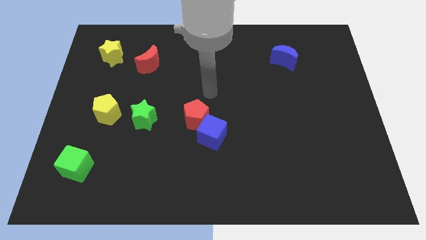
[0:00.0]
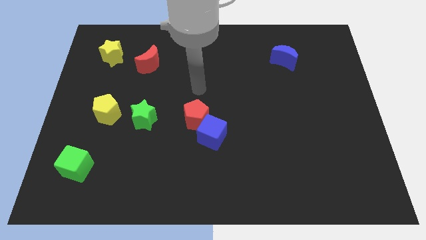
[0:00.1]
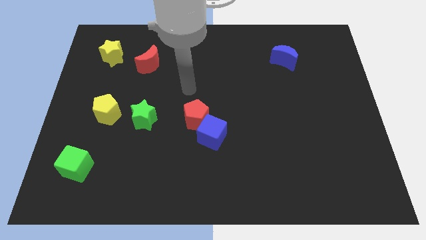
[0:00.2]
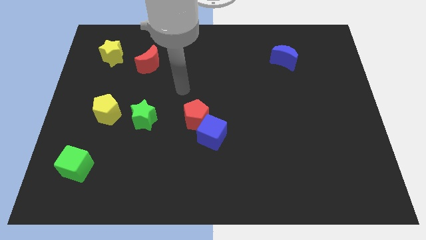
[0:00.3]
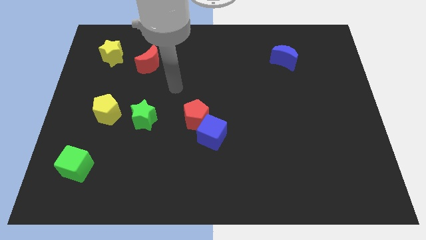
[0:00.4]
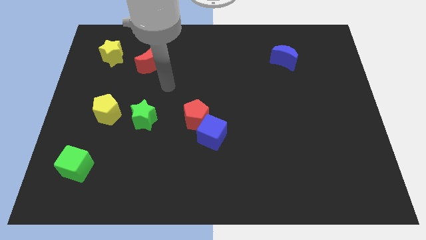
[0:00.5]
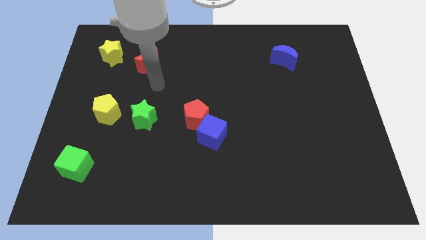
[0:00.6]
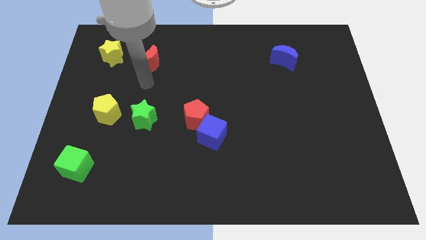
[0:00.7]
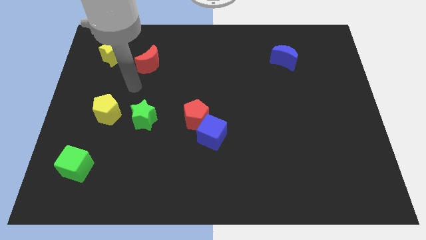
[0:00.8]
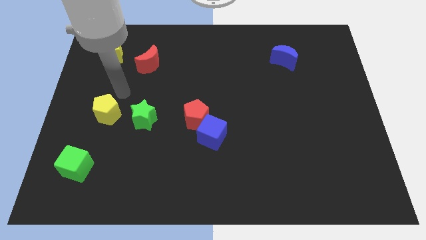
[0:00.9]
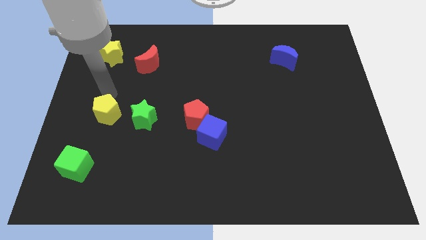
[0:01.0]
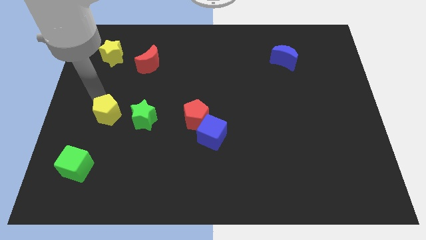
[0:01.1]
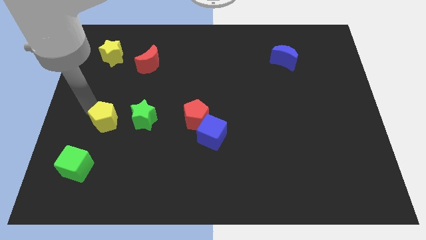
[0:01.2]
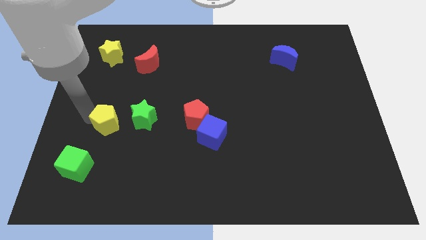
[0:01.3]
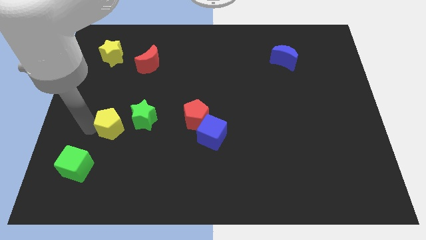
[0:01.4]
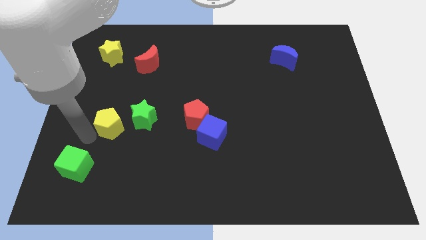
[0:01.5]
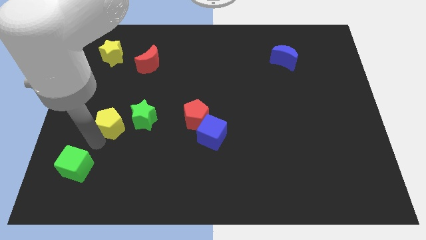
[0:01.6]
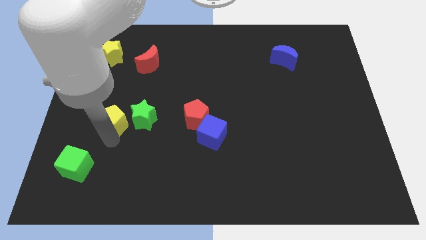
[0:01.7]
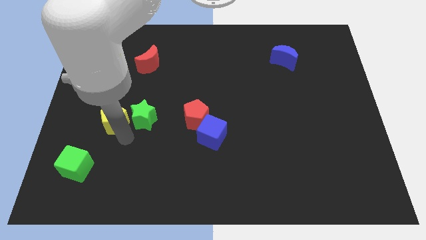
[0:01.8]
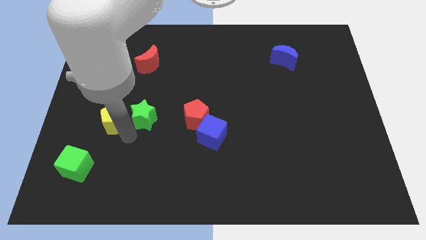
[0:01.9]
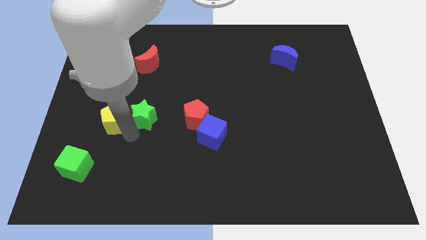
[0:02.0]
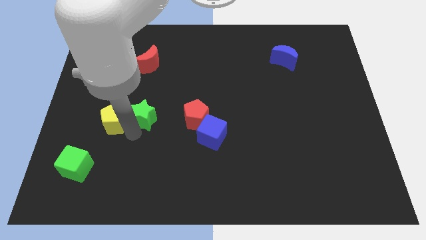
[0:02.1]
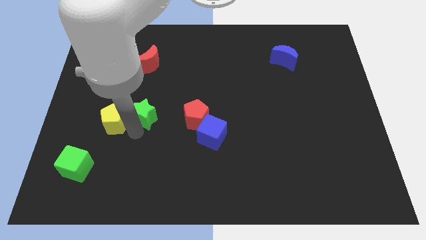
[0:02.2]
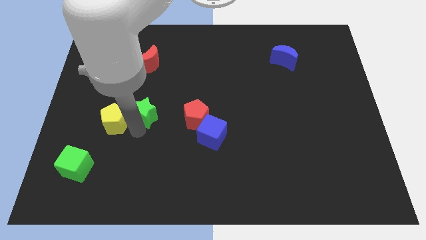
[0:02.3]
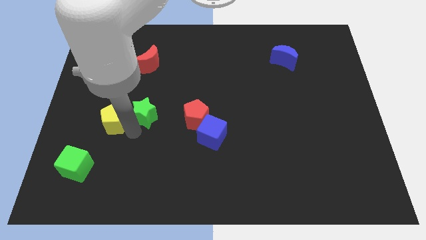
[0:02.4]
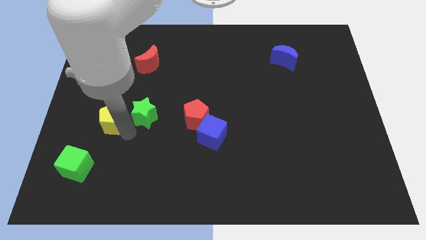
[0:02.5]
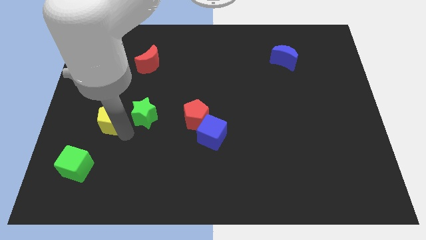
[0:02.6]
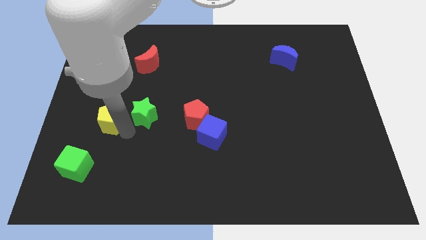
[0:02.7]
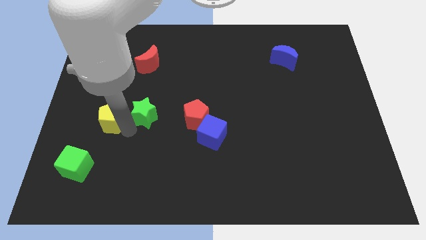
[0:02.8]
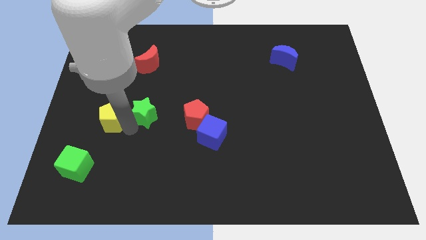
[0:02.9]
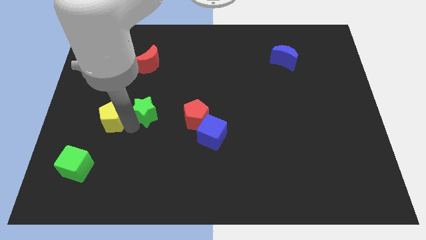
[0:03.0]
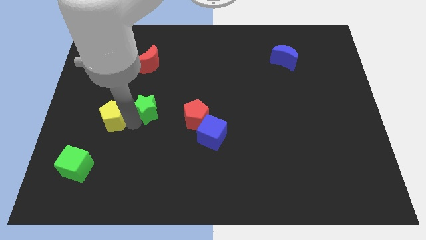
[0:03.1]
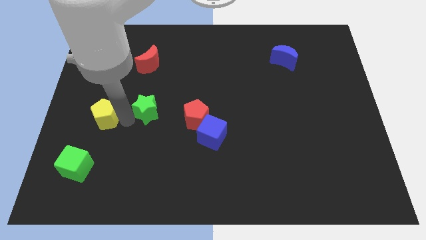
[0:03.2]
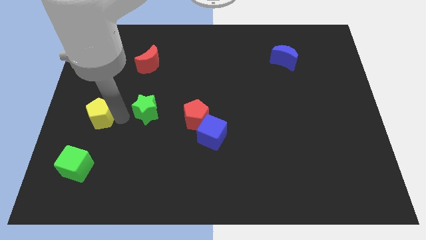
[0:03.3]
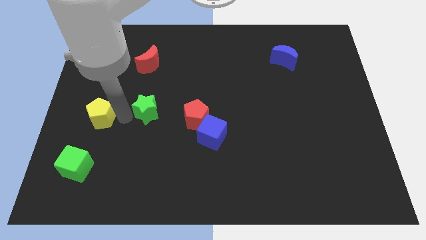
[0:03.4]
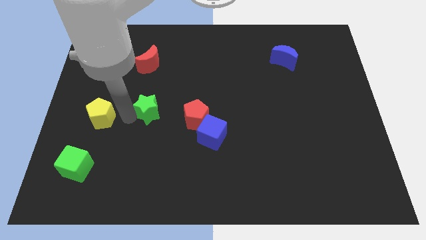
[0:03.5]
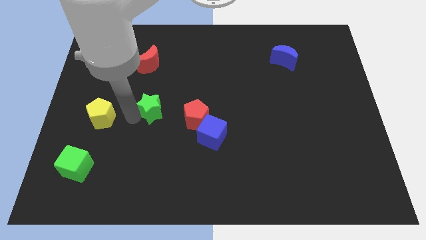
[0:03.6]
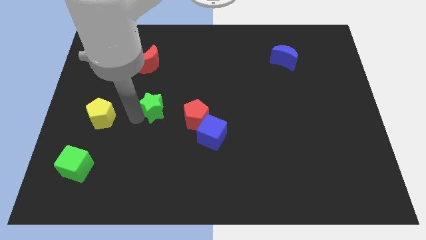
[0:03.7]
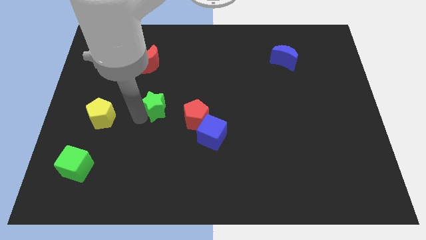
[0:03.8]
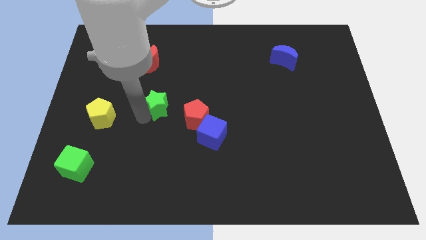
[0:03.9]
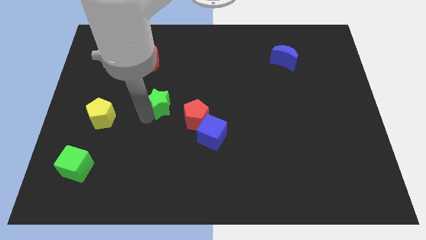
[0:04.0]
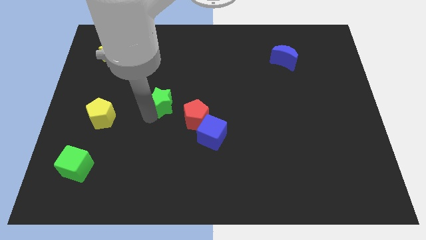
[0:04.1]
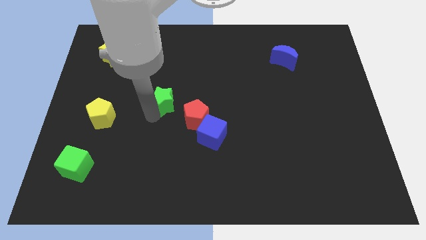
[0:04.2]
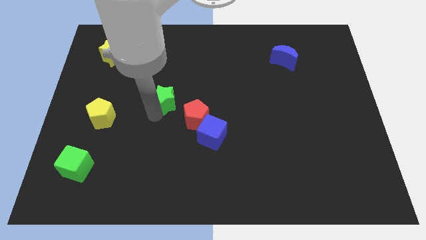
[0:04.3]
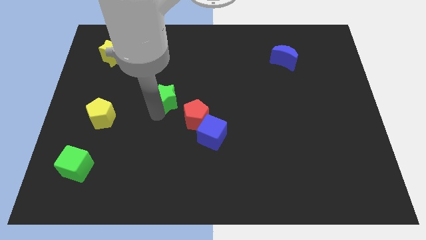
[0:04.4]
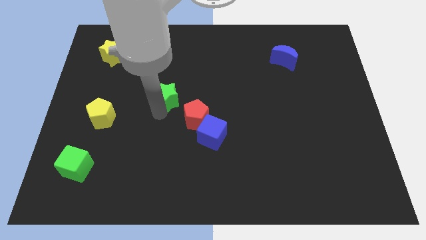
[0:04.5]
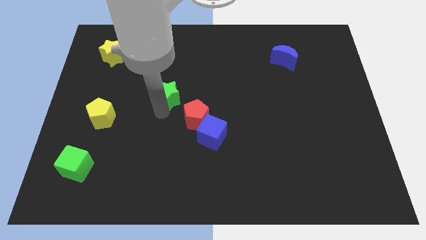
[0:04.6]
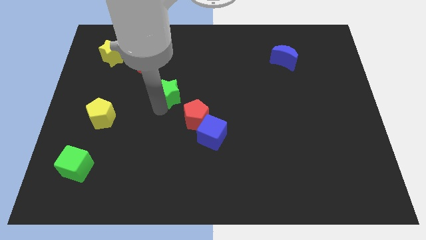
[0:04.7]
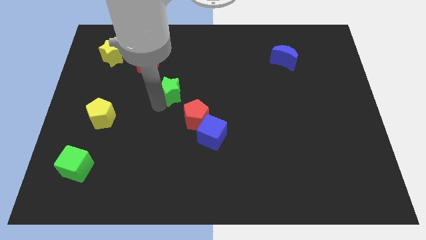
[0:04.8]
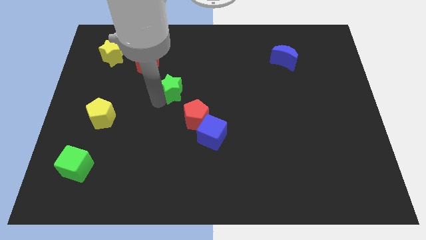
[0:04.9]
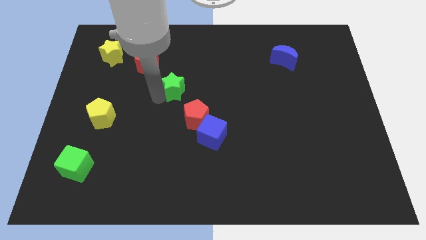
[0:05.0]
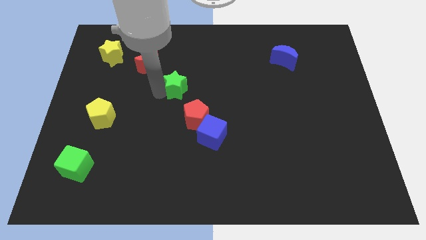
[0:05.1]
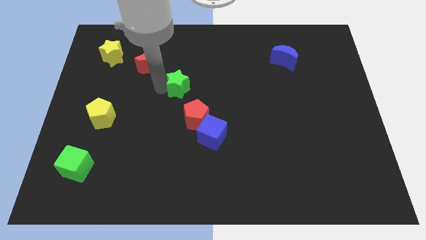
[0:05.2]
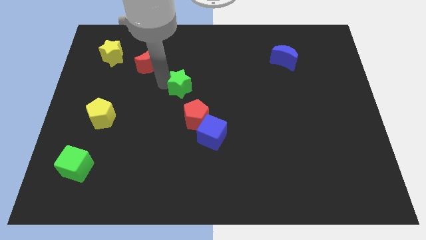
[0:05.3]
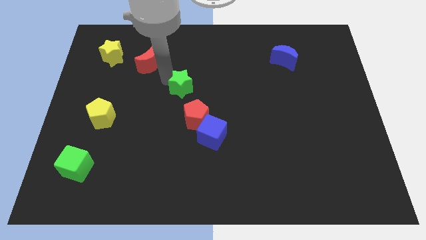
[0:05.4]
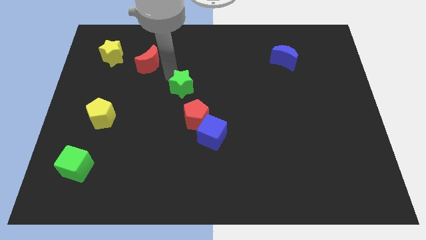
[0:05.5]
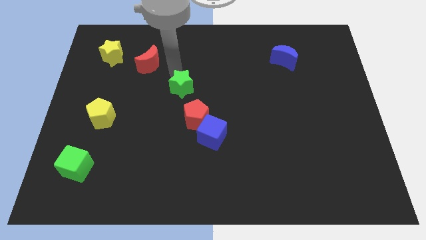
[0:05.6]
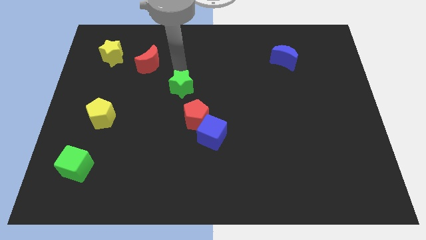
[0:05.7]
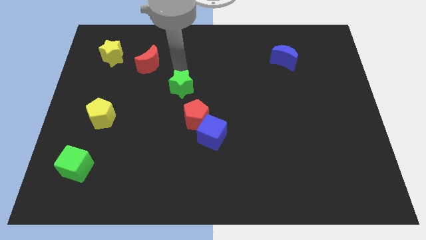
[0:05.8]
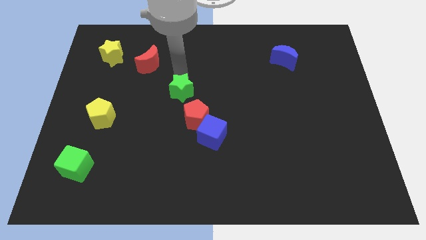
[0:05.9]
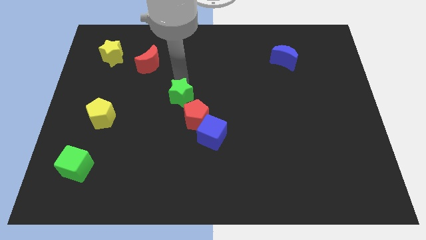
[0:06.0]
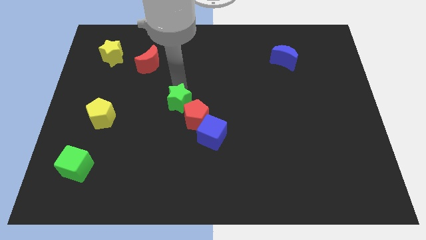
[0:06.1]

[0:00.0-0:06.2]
push the green star right a bit

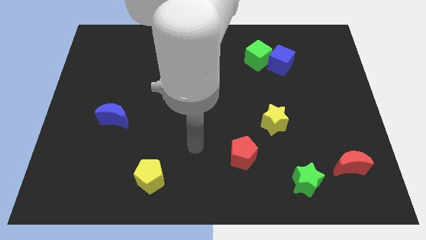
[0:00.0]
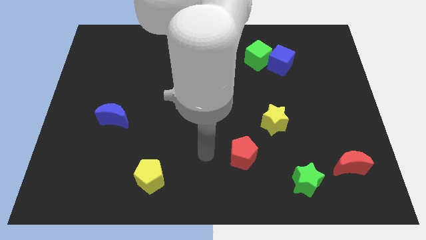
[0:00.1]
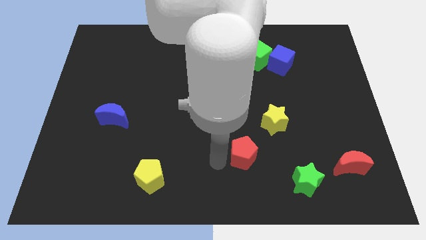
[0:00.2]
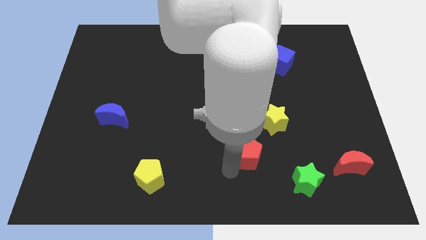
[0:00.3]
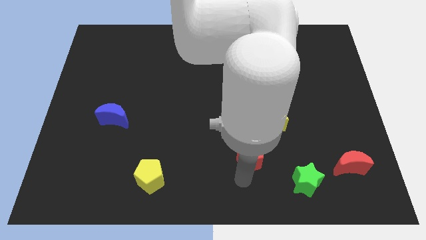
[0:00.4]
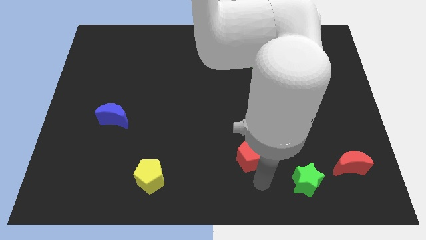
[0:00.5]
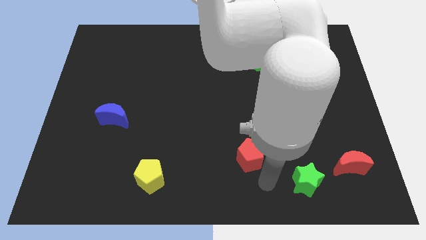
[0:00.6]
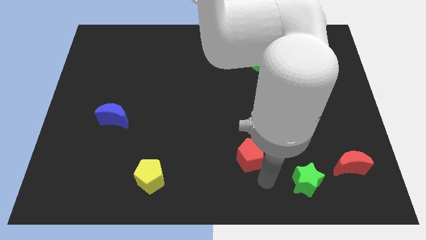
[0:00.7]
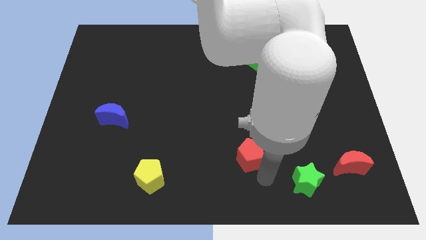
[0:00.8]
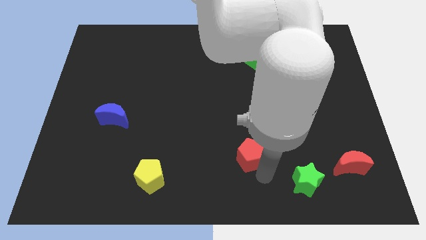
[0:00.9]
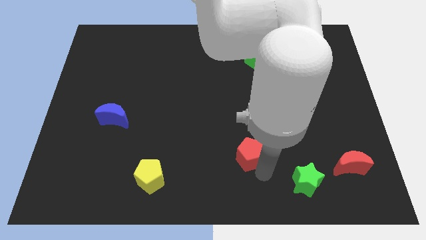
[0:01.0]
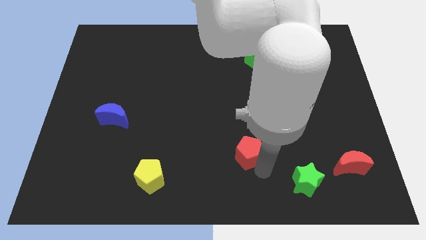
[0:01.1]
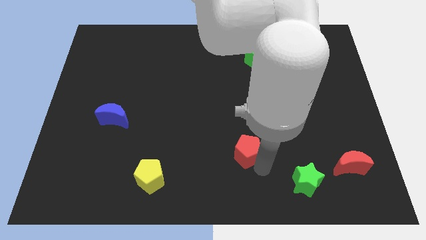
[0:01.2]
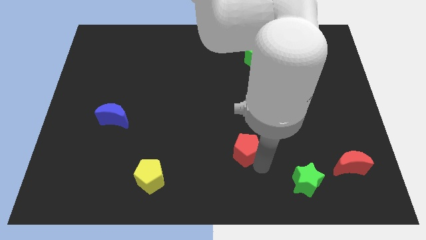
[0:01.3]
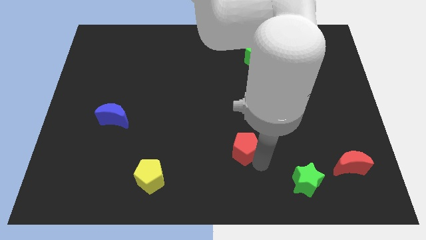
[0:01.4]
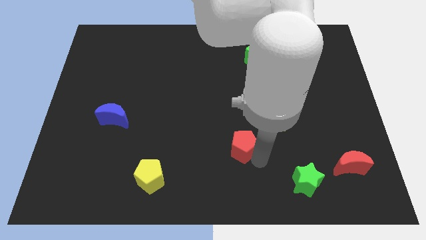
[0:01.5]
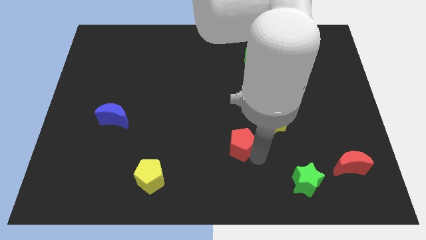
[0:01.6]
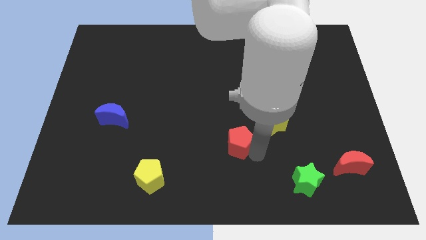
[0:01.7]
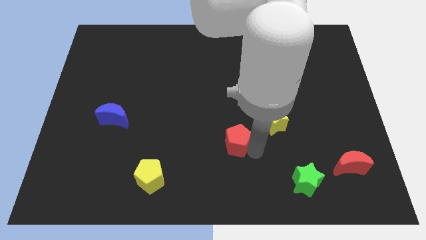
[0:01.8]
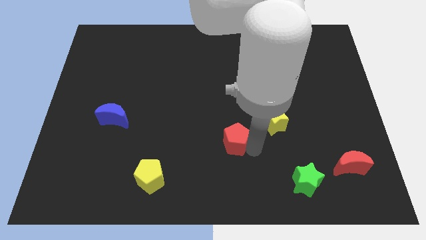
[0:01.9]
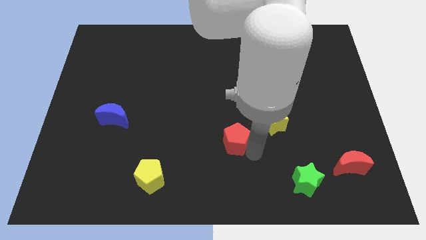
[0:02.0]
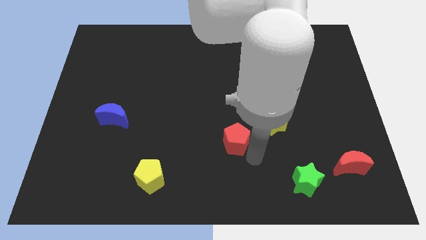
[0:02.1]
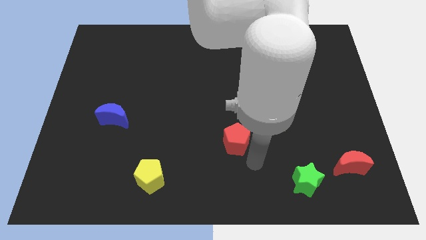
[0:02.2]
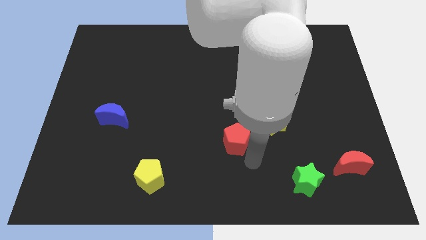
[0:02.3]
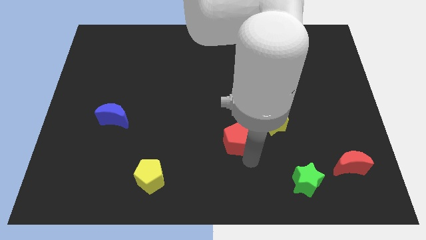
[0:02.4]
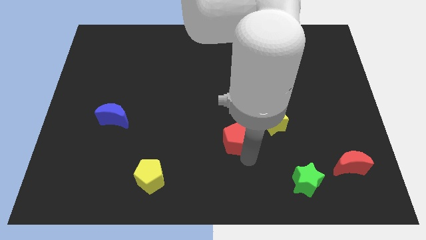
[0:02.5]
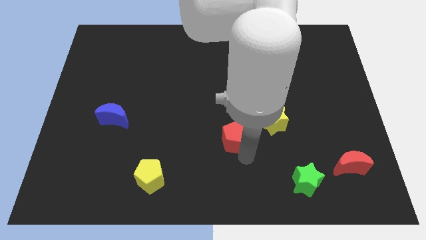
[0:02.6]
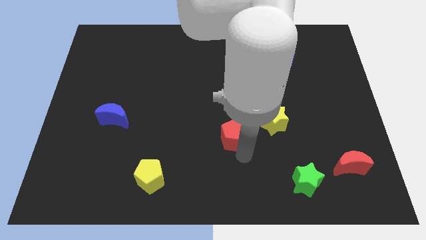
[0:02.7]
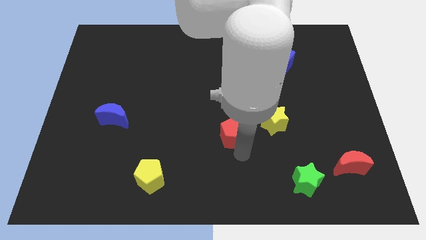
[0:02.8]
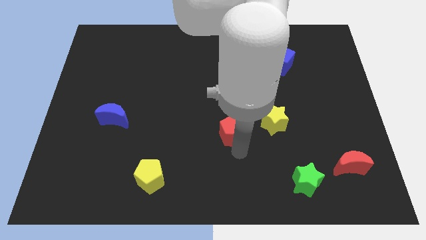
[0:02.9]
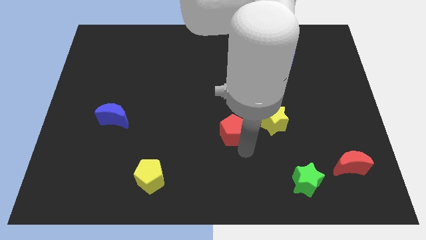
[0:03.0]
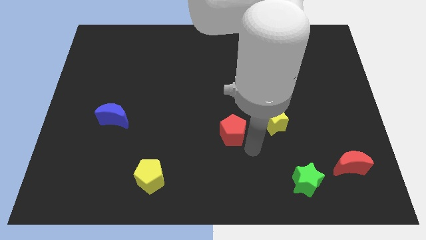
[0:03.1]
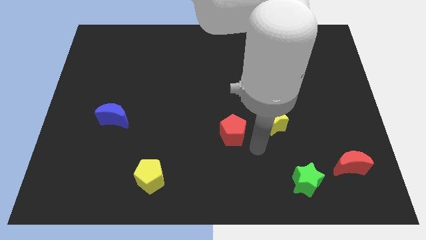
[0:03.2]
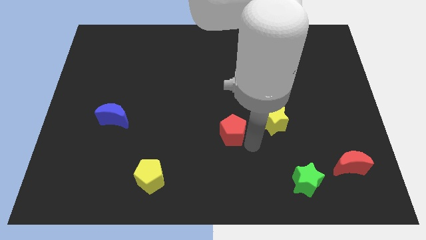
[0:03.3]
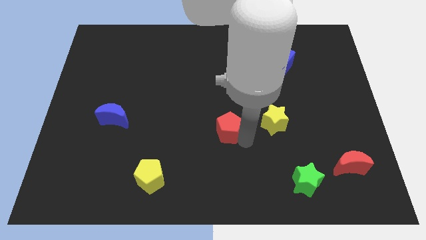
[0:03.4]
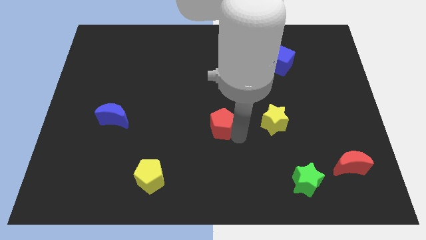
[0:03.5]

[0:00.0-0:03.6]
slide the red pentagon a little bit upwards and to the left diagonally
